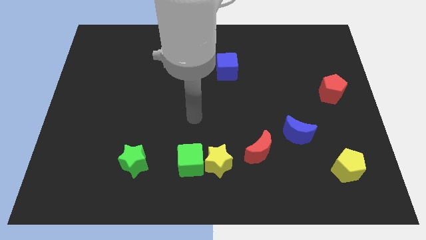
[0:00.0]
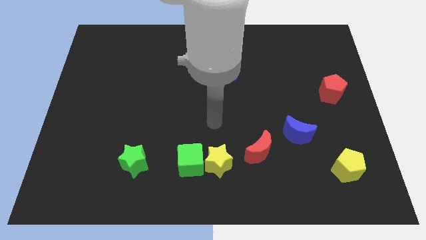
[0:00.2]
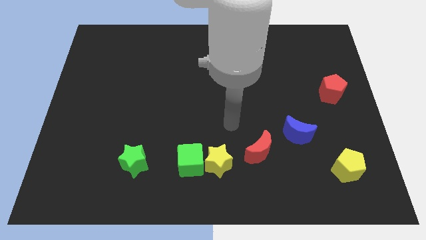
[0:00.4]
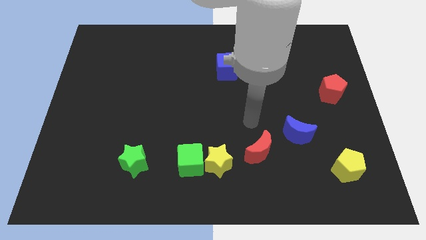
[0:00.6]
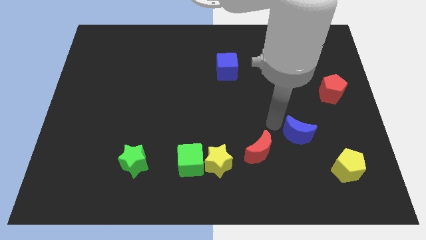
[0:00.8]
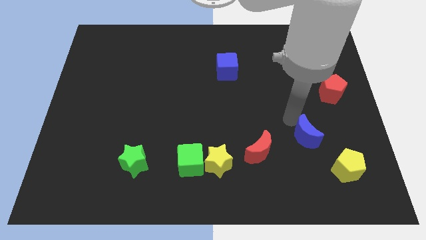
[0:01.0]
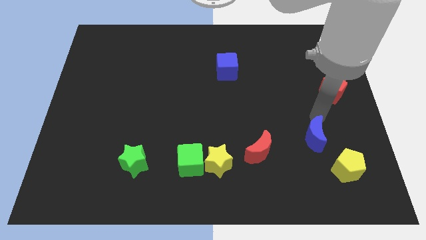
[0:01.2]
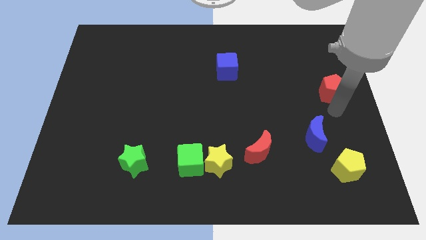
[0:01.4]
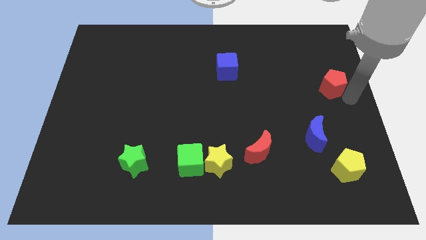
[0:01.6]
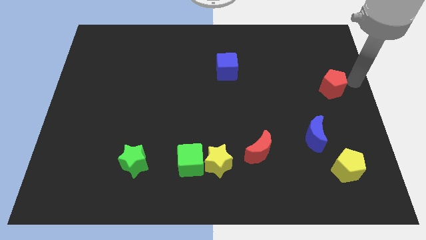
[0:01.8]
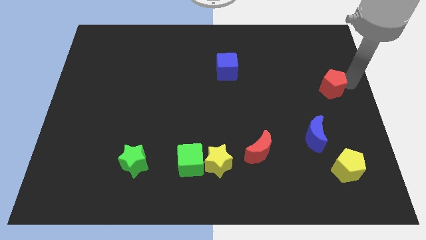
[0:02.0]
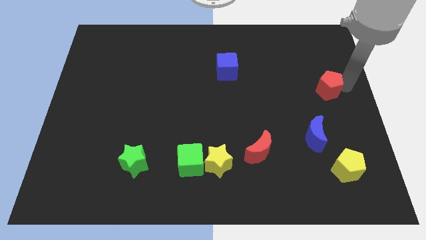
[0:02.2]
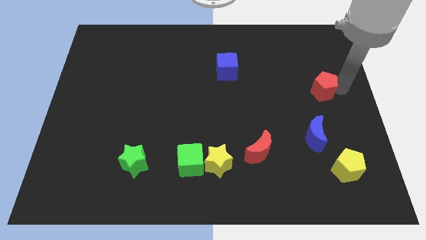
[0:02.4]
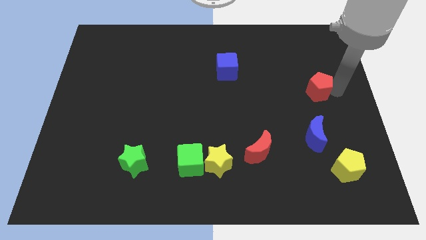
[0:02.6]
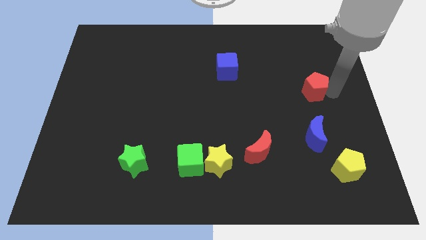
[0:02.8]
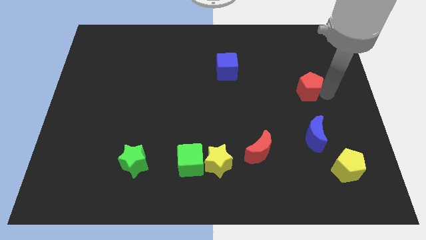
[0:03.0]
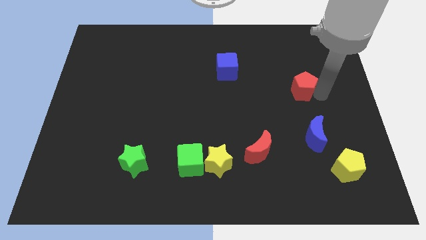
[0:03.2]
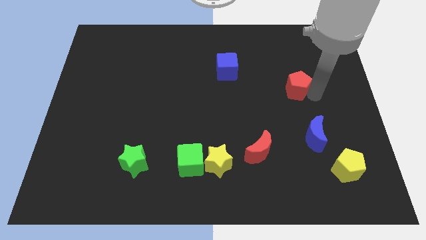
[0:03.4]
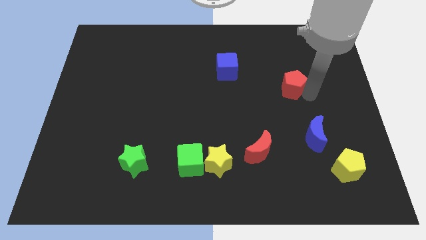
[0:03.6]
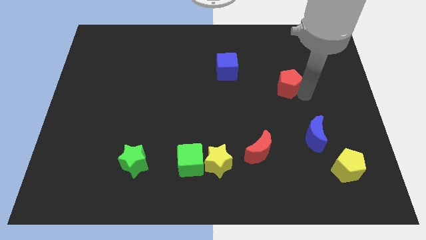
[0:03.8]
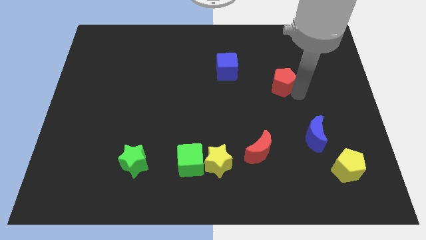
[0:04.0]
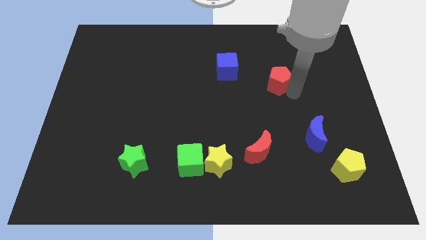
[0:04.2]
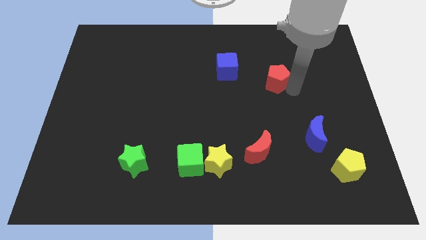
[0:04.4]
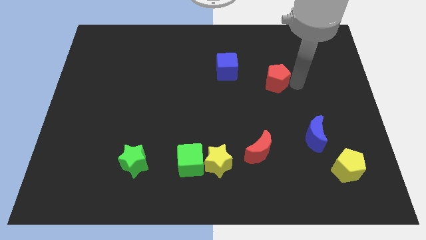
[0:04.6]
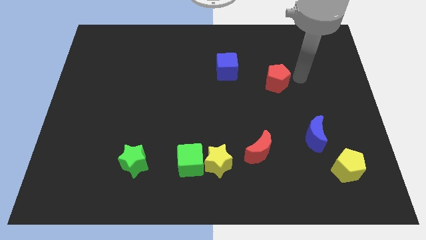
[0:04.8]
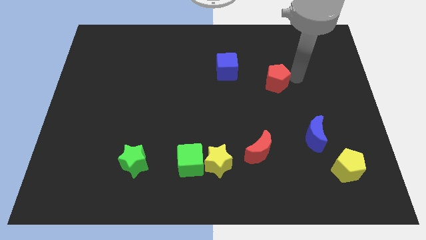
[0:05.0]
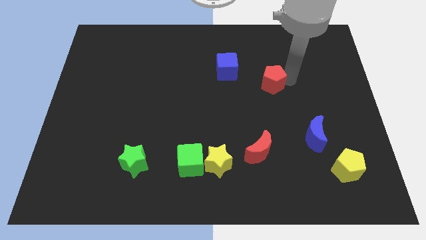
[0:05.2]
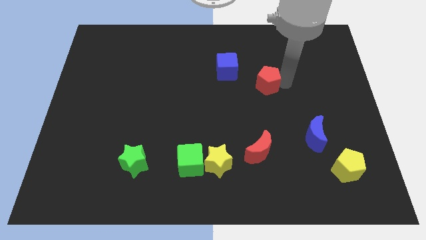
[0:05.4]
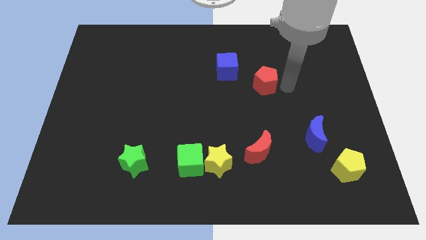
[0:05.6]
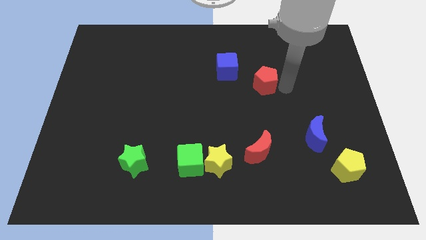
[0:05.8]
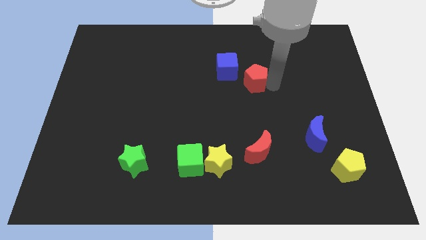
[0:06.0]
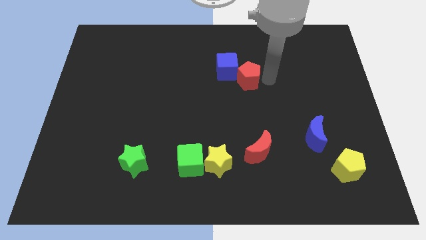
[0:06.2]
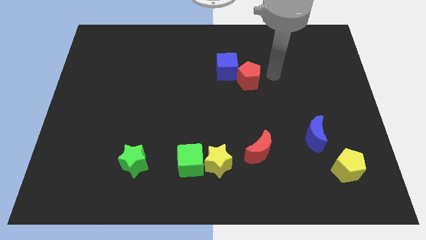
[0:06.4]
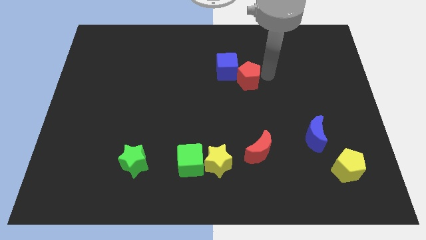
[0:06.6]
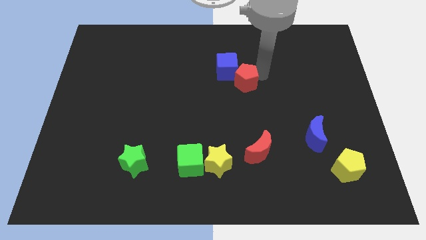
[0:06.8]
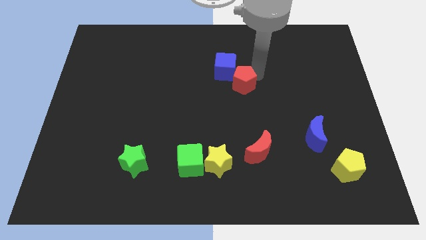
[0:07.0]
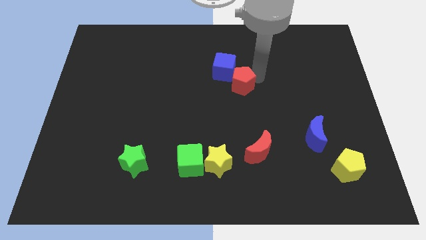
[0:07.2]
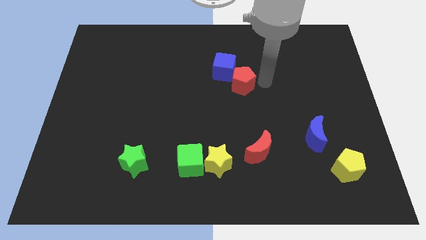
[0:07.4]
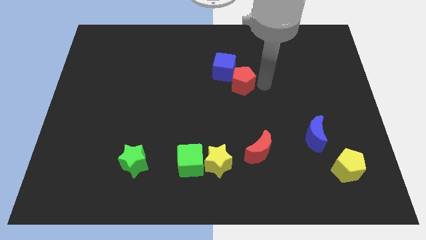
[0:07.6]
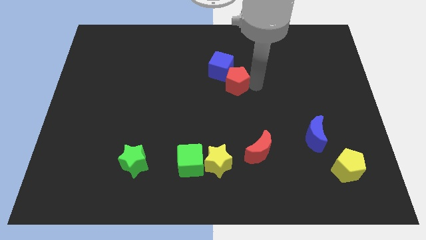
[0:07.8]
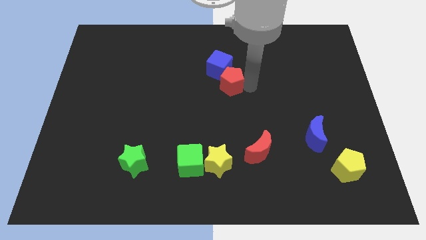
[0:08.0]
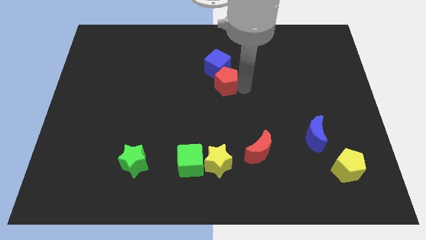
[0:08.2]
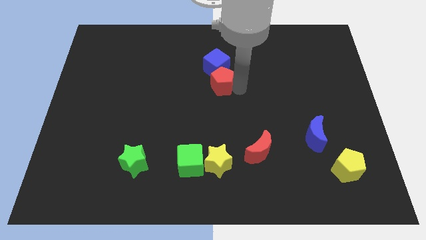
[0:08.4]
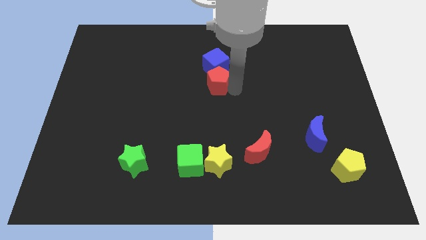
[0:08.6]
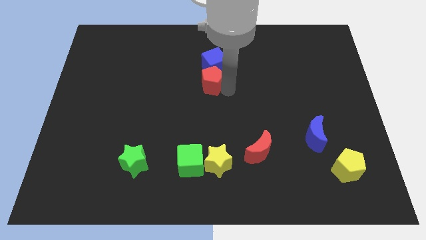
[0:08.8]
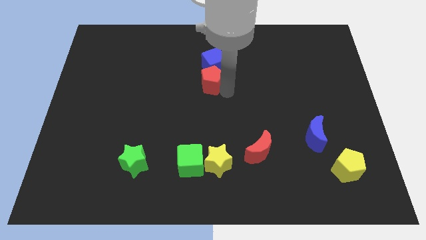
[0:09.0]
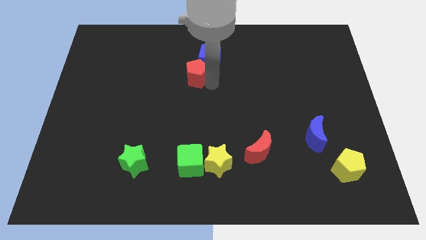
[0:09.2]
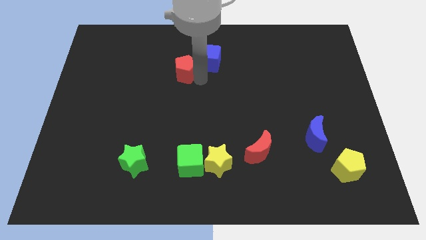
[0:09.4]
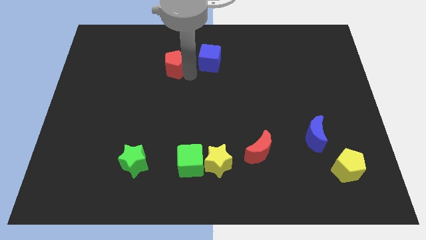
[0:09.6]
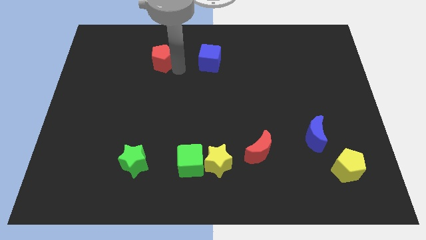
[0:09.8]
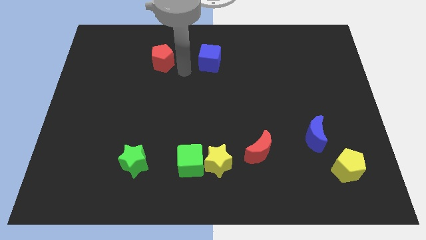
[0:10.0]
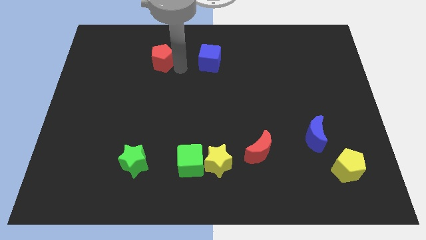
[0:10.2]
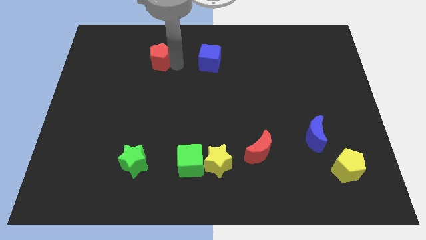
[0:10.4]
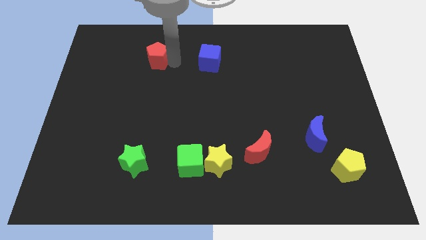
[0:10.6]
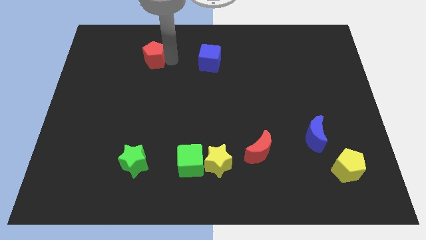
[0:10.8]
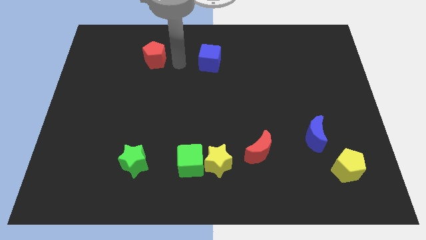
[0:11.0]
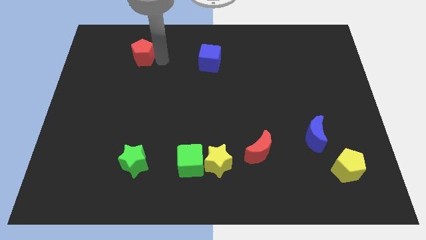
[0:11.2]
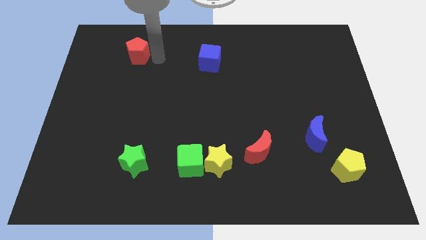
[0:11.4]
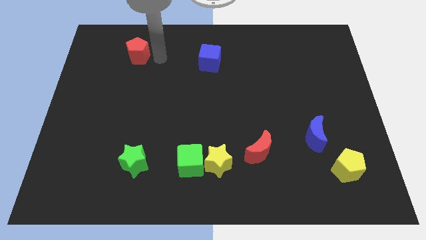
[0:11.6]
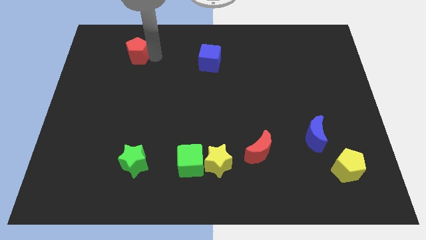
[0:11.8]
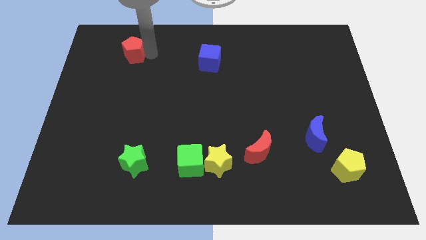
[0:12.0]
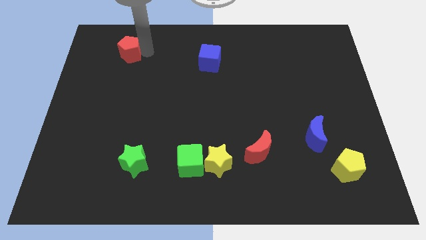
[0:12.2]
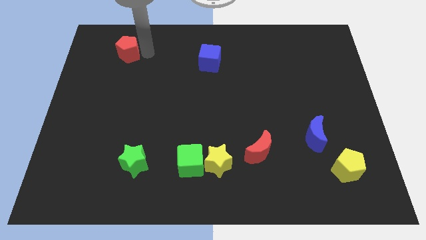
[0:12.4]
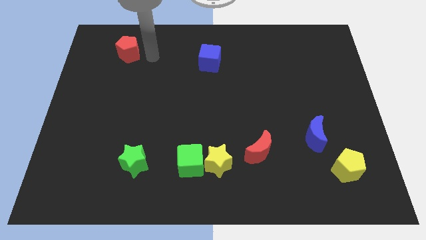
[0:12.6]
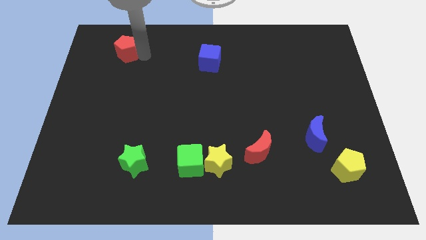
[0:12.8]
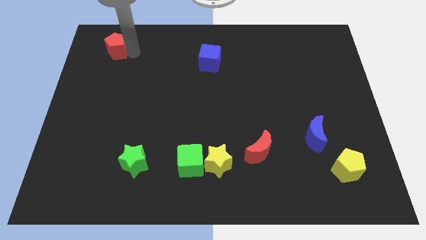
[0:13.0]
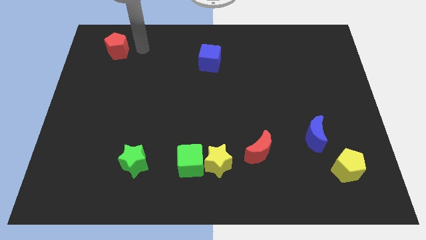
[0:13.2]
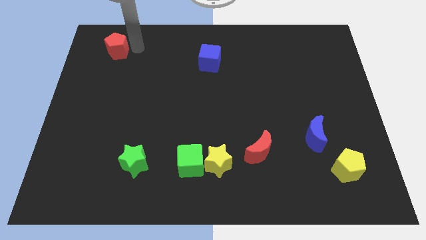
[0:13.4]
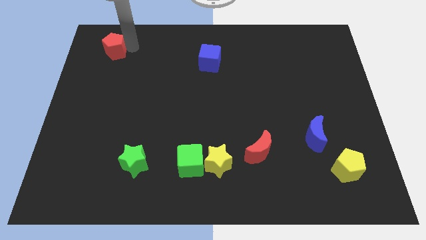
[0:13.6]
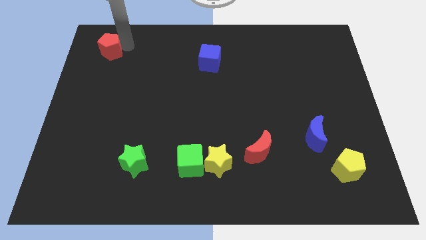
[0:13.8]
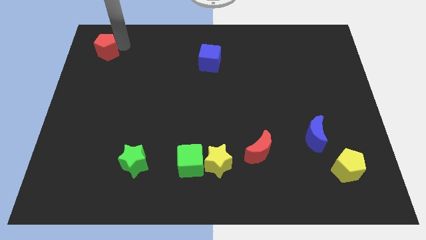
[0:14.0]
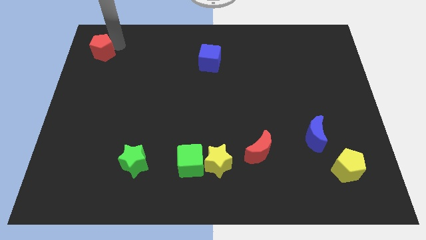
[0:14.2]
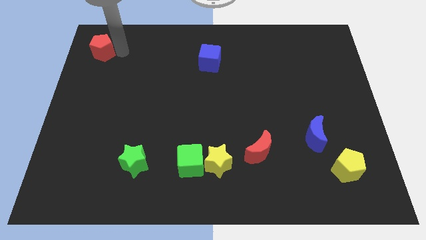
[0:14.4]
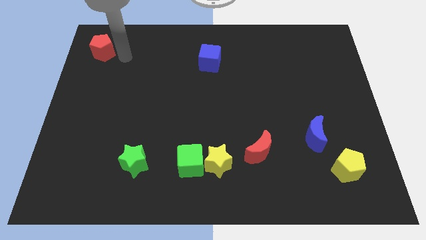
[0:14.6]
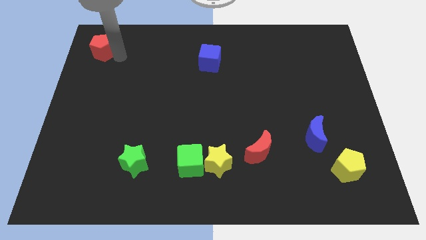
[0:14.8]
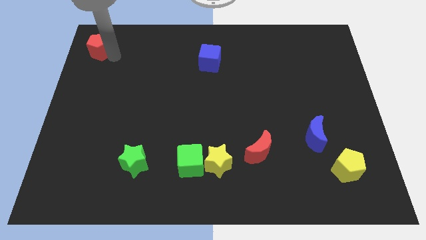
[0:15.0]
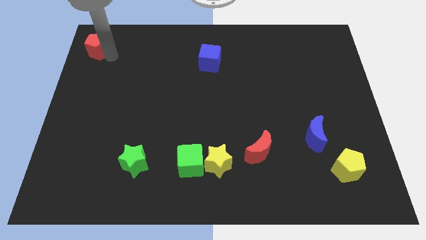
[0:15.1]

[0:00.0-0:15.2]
move the red pentagon to the upper left corner
